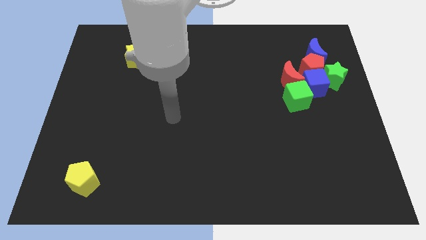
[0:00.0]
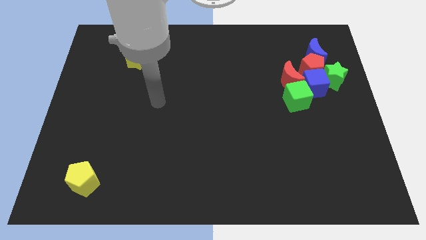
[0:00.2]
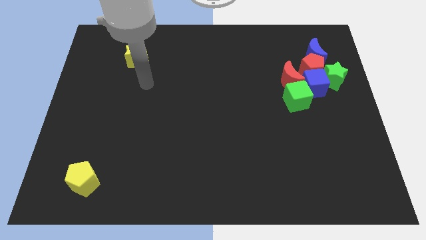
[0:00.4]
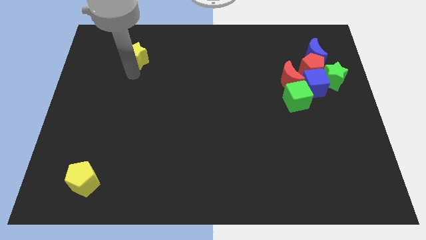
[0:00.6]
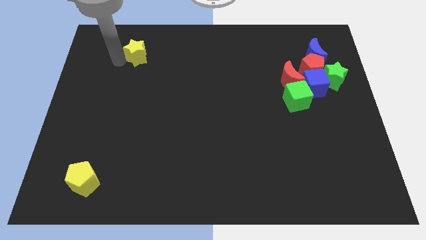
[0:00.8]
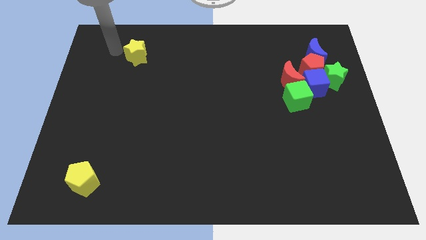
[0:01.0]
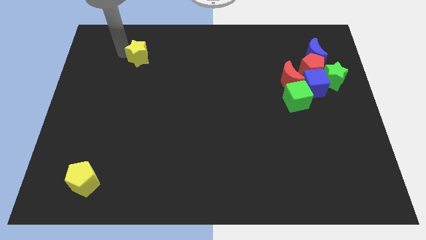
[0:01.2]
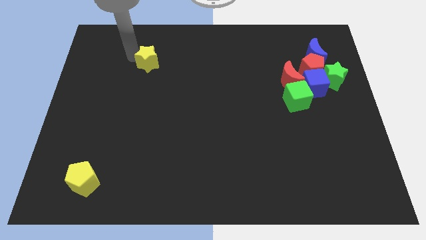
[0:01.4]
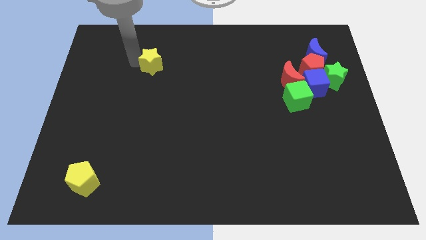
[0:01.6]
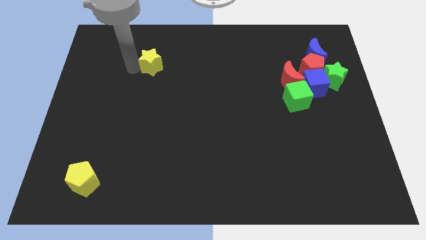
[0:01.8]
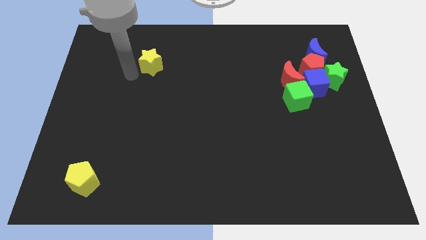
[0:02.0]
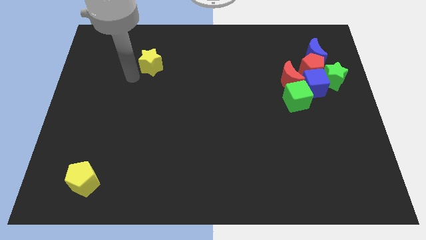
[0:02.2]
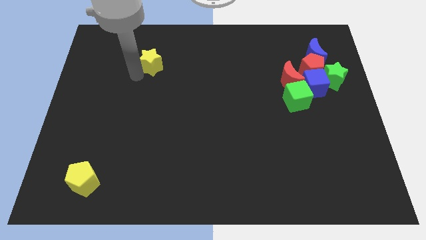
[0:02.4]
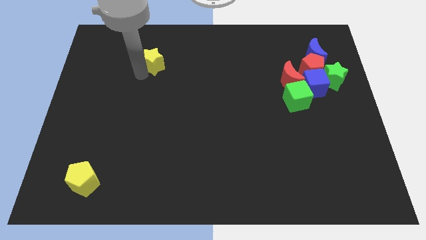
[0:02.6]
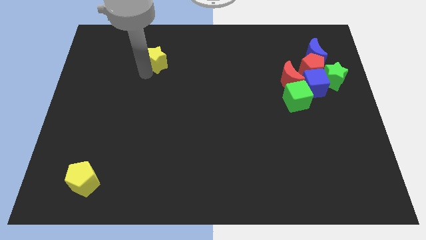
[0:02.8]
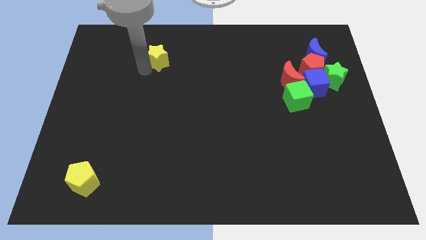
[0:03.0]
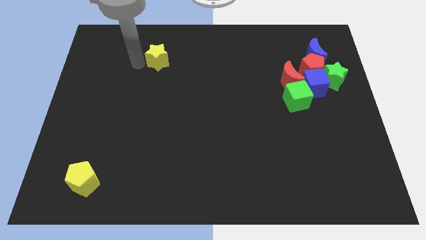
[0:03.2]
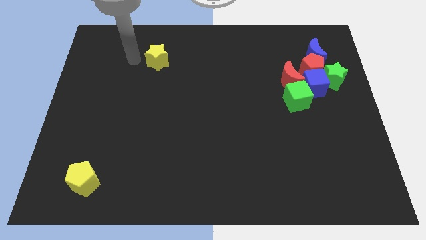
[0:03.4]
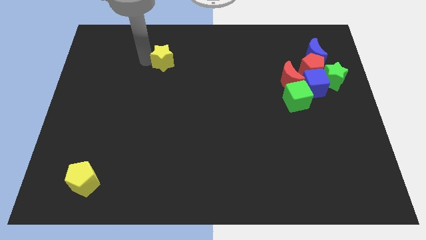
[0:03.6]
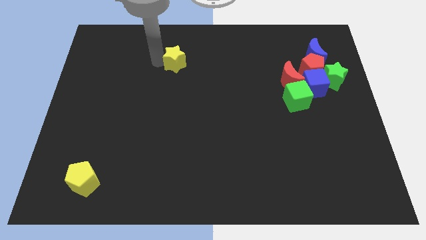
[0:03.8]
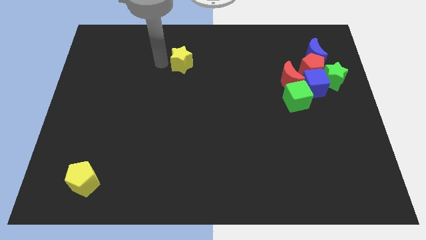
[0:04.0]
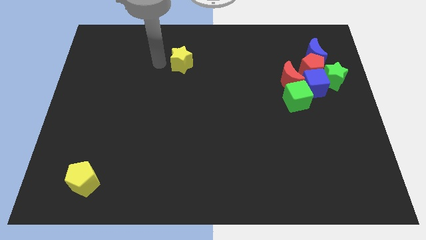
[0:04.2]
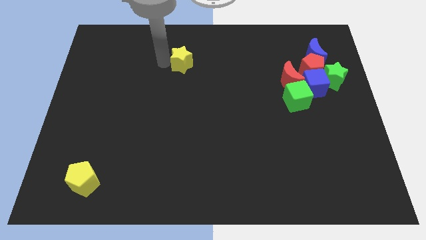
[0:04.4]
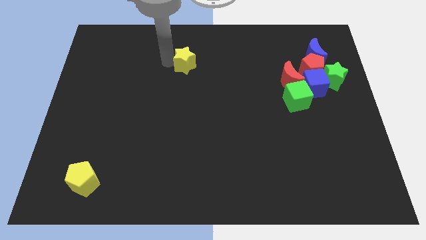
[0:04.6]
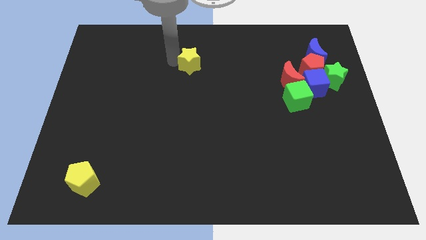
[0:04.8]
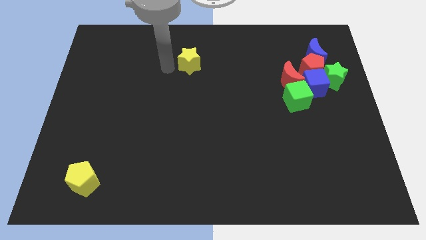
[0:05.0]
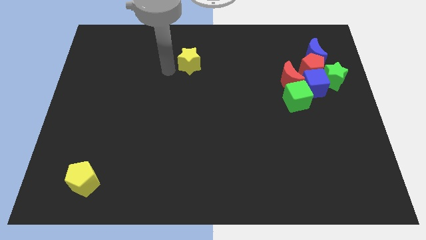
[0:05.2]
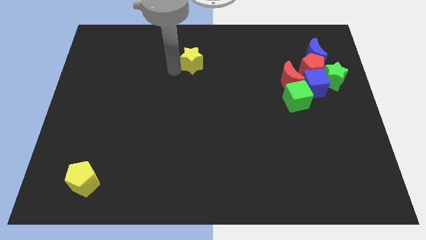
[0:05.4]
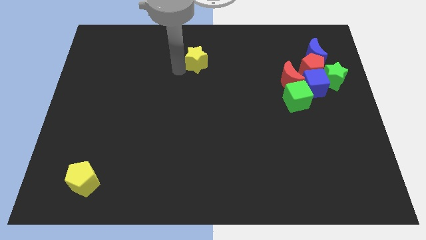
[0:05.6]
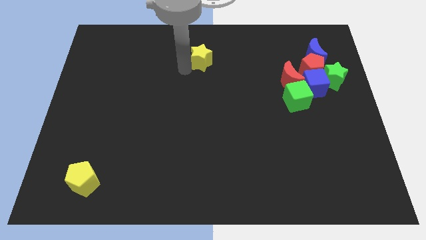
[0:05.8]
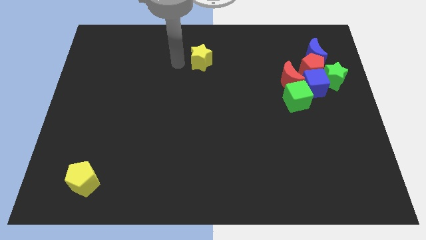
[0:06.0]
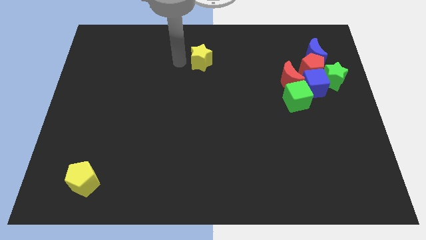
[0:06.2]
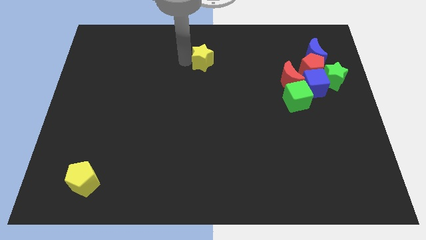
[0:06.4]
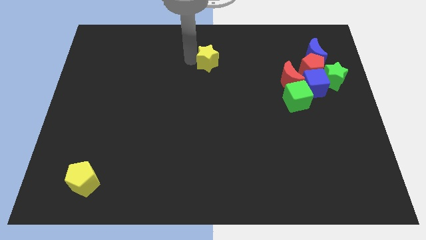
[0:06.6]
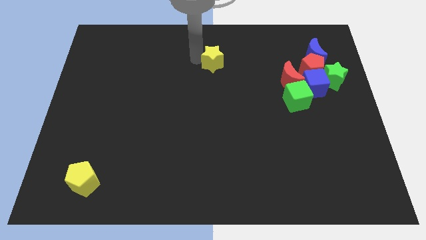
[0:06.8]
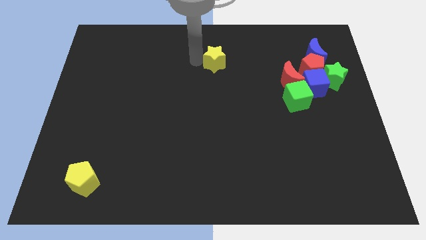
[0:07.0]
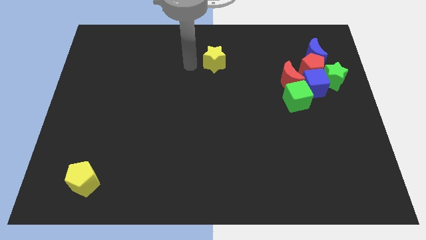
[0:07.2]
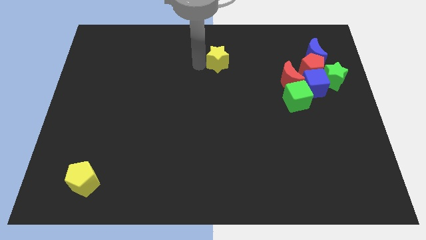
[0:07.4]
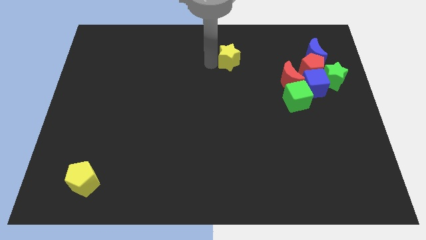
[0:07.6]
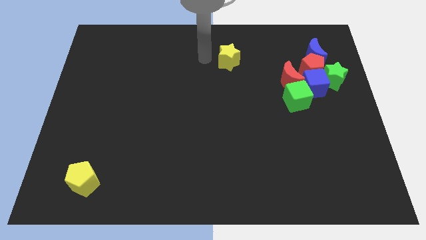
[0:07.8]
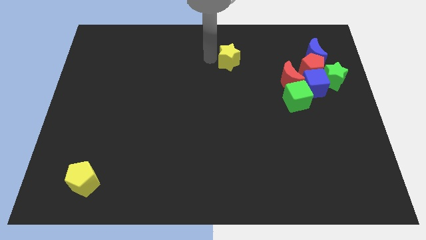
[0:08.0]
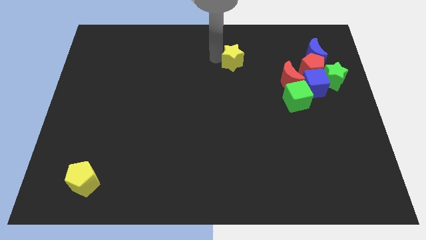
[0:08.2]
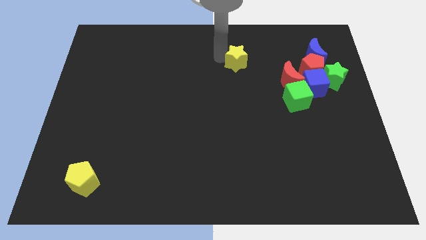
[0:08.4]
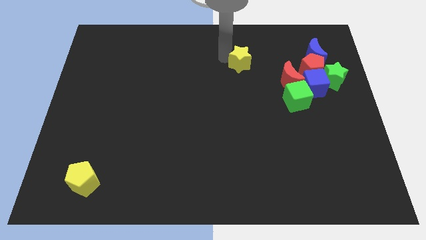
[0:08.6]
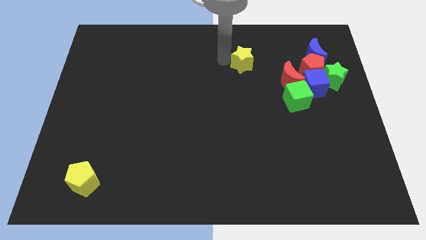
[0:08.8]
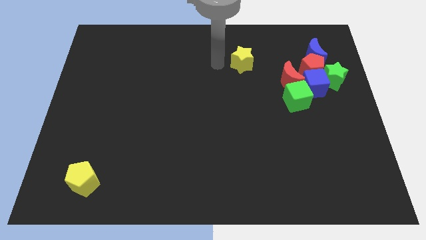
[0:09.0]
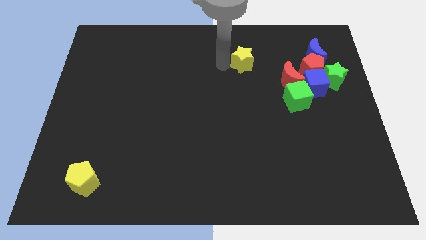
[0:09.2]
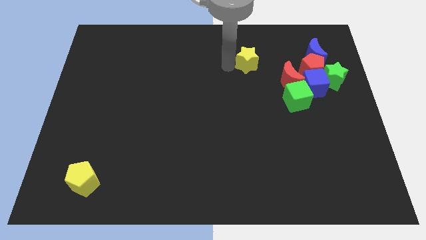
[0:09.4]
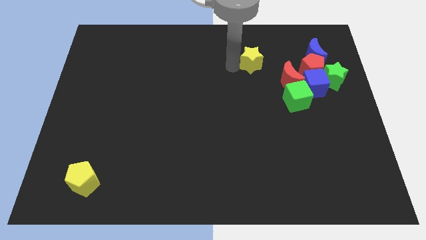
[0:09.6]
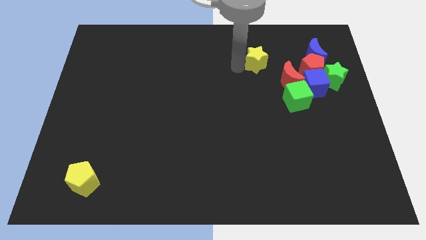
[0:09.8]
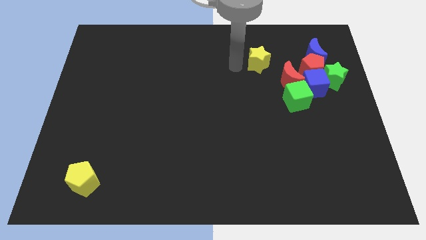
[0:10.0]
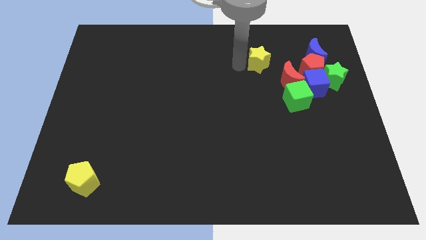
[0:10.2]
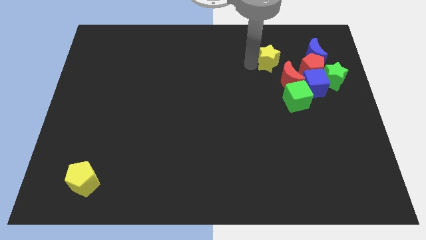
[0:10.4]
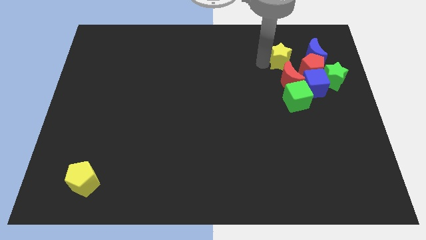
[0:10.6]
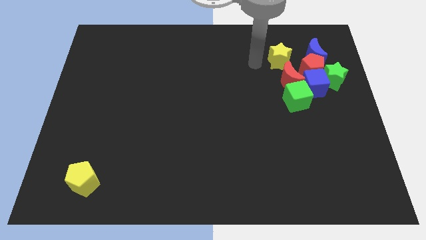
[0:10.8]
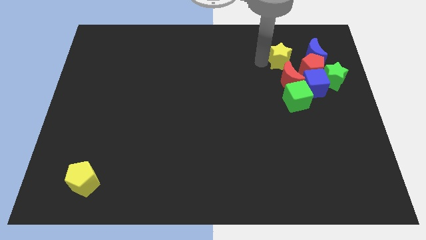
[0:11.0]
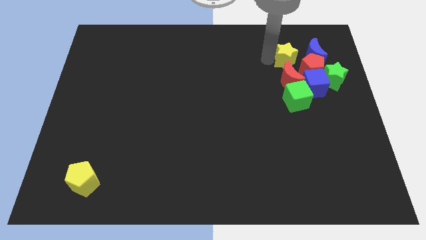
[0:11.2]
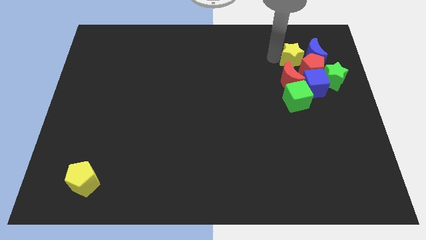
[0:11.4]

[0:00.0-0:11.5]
slide the yellow star close to the blue moon

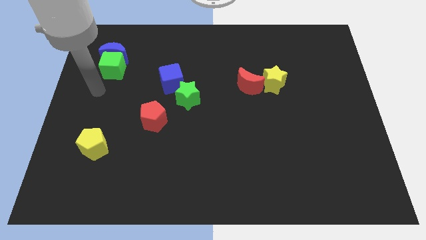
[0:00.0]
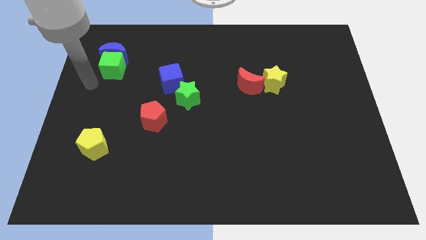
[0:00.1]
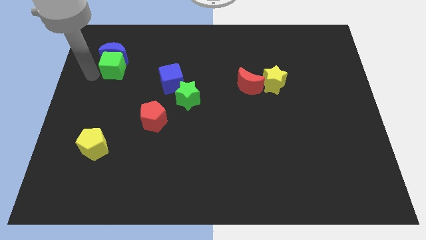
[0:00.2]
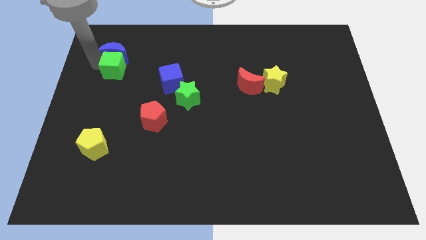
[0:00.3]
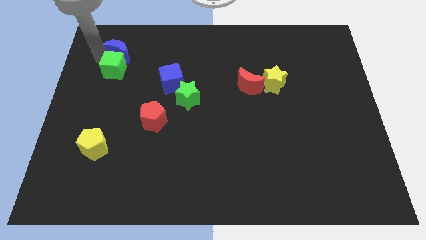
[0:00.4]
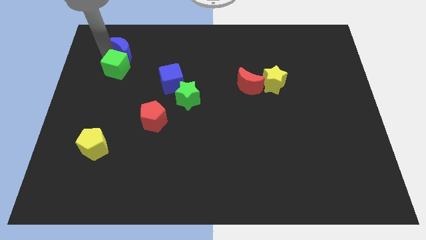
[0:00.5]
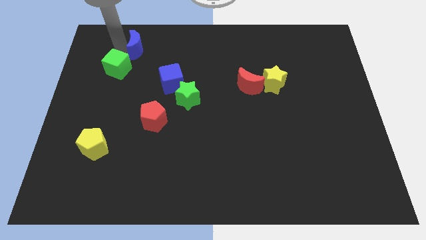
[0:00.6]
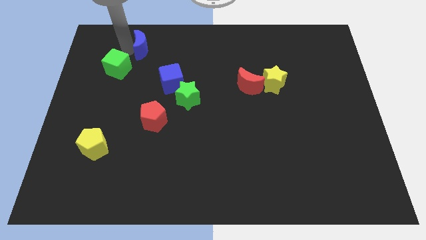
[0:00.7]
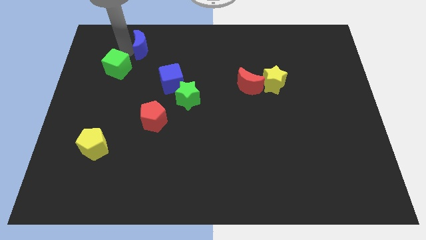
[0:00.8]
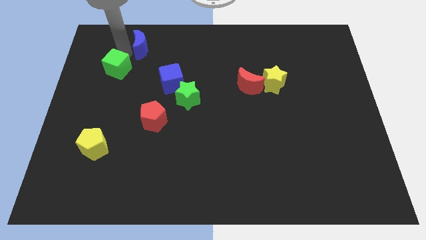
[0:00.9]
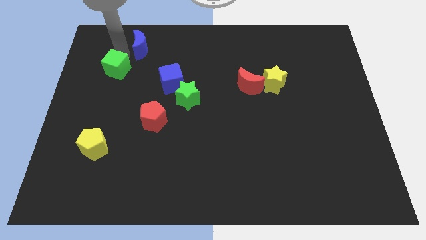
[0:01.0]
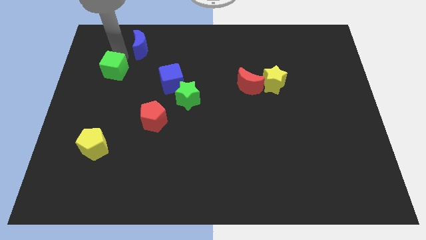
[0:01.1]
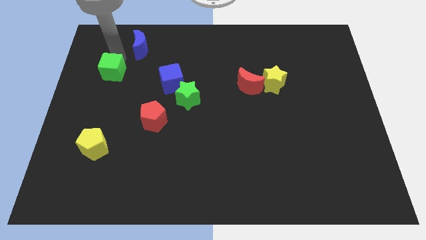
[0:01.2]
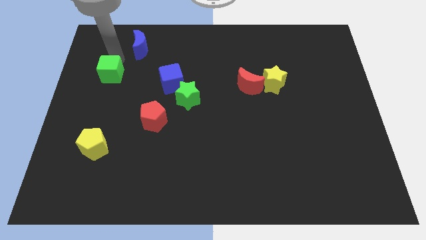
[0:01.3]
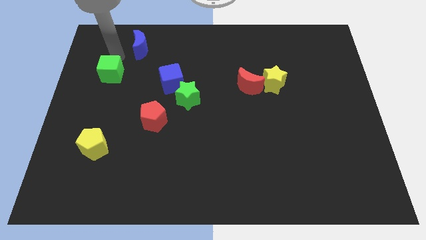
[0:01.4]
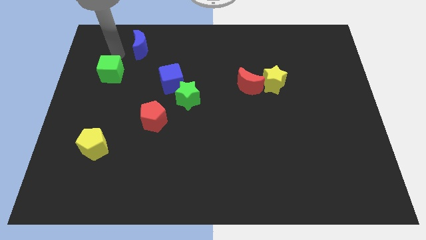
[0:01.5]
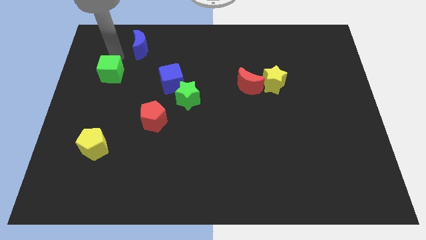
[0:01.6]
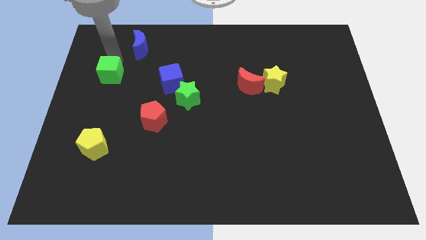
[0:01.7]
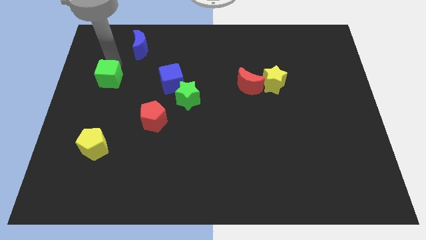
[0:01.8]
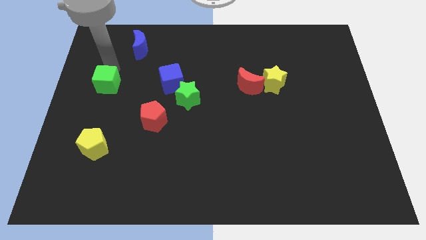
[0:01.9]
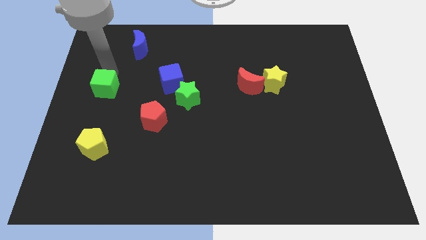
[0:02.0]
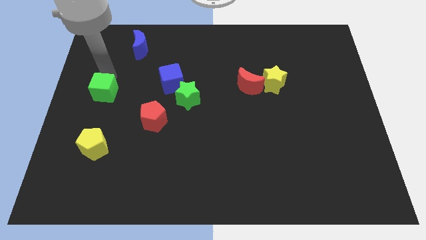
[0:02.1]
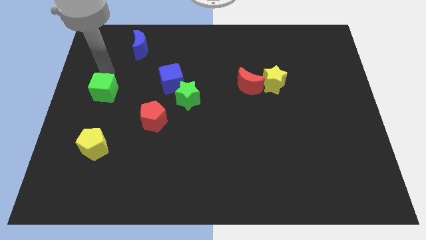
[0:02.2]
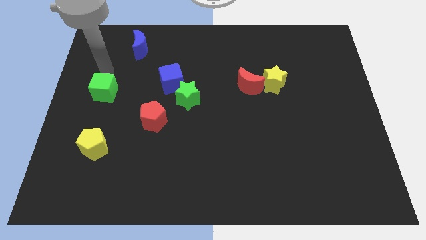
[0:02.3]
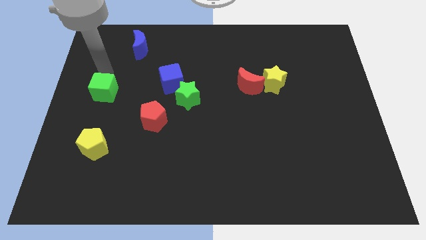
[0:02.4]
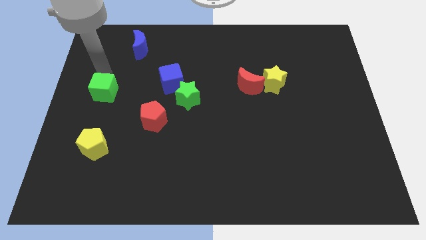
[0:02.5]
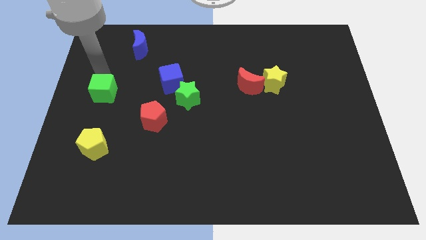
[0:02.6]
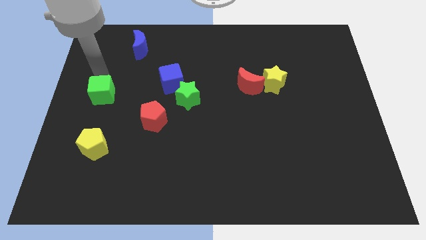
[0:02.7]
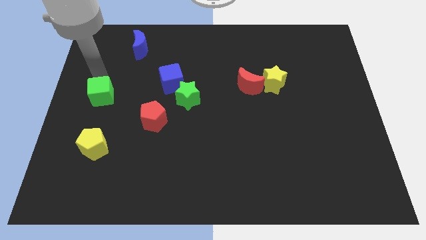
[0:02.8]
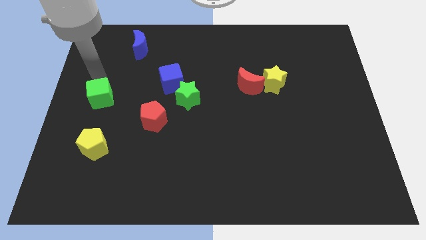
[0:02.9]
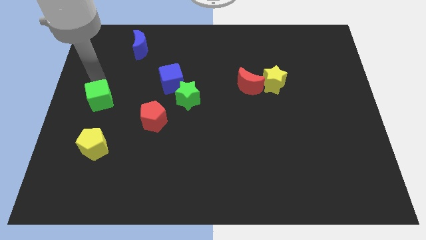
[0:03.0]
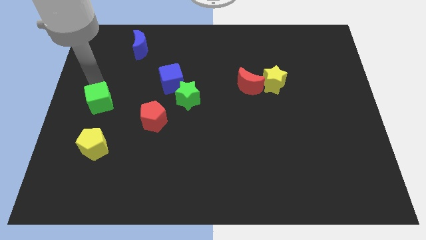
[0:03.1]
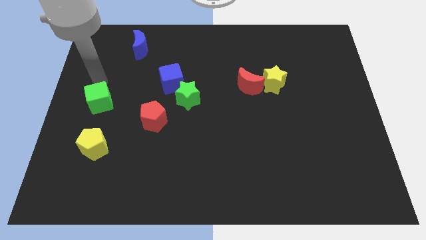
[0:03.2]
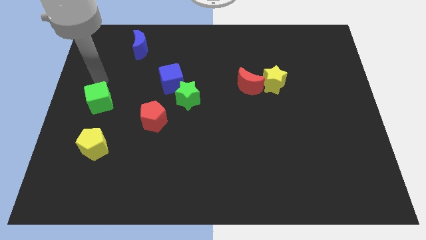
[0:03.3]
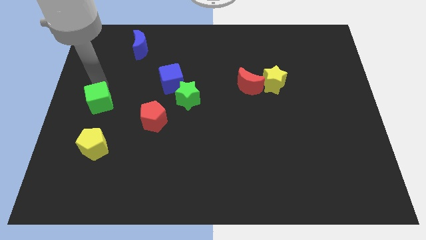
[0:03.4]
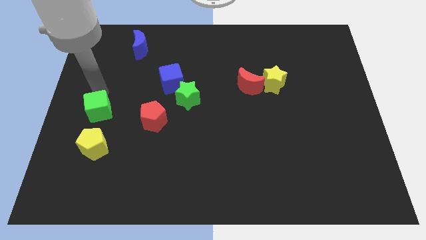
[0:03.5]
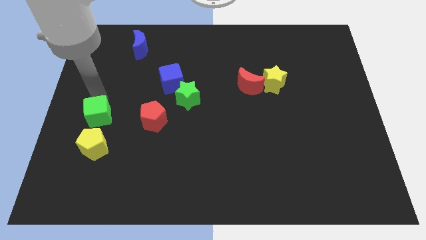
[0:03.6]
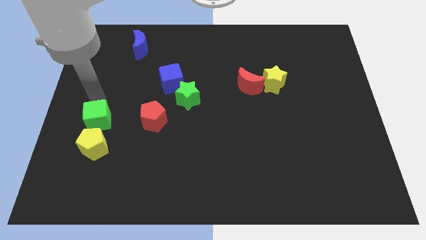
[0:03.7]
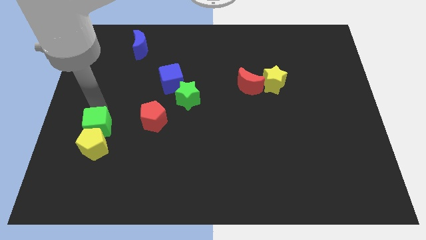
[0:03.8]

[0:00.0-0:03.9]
slide the green cube towards the yellow pentagon
